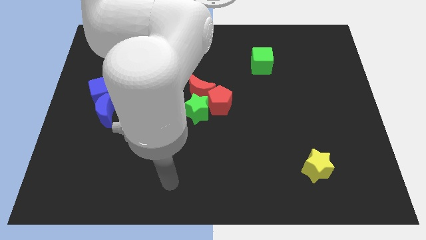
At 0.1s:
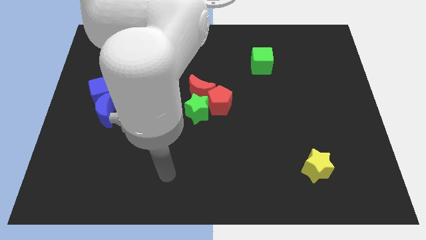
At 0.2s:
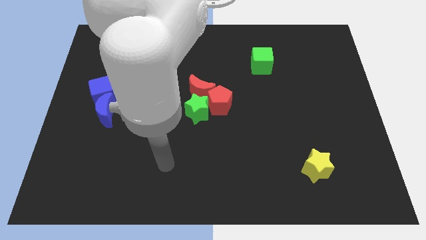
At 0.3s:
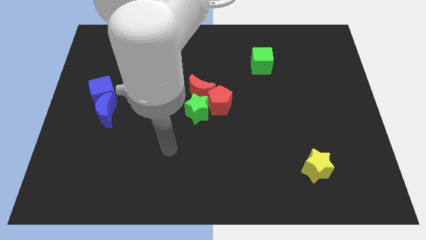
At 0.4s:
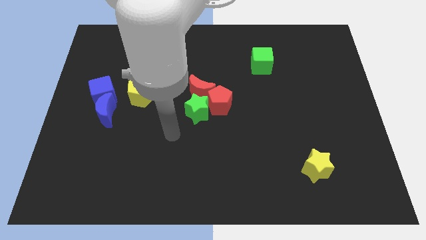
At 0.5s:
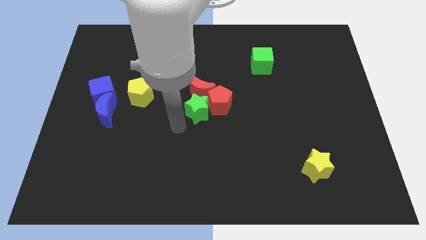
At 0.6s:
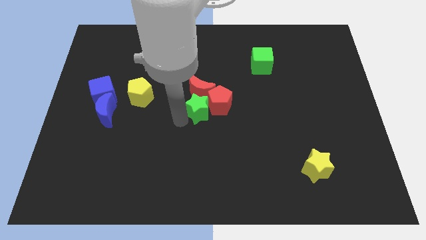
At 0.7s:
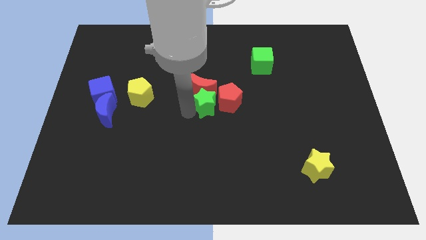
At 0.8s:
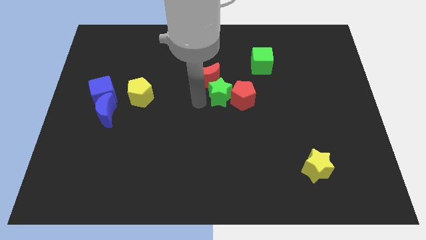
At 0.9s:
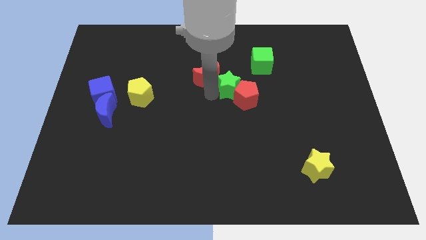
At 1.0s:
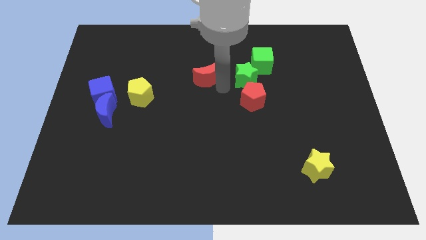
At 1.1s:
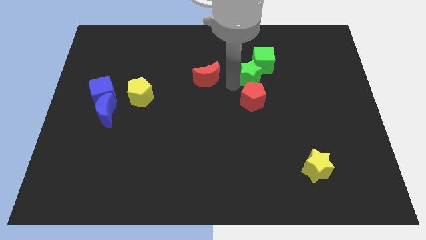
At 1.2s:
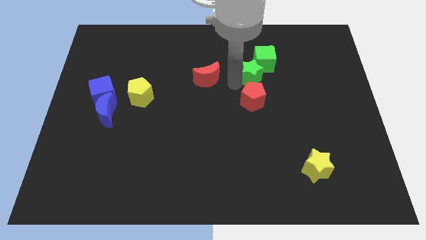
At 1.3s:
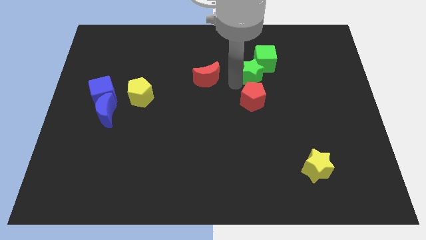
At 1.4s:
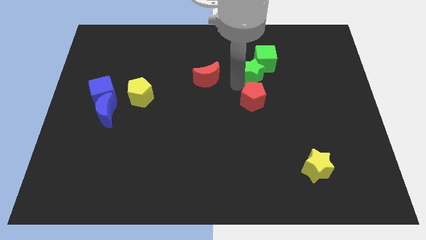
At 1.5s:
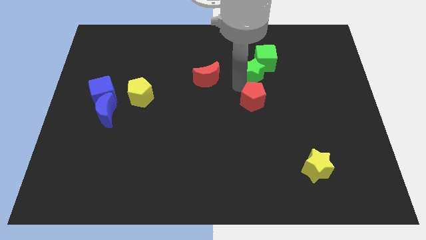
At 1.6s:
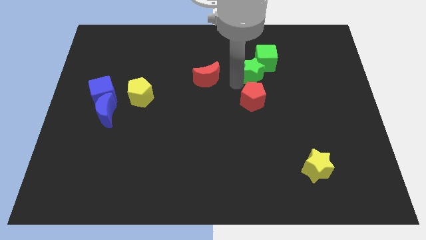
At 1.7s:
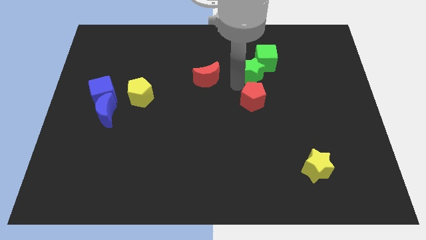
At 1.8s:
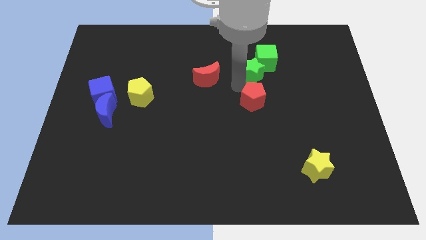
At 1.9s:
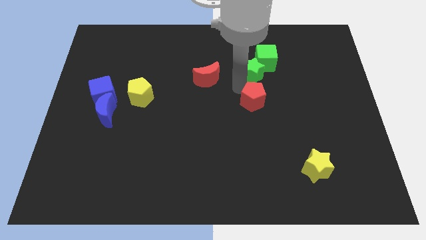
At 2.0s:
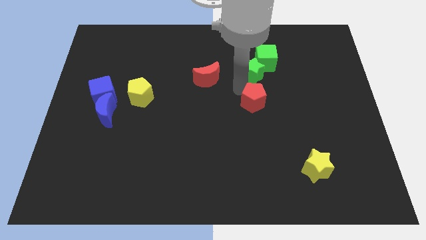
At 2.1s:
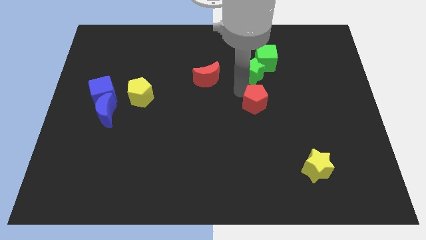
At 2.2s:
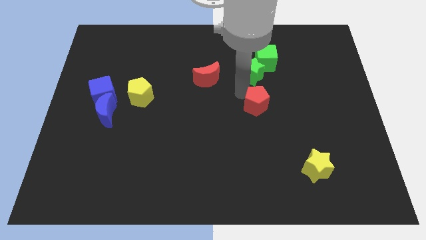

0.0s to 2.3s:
move the red pentagon away from the green star and red moon

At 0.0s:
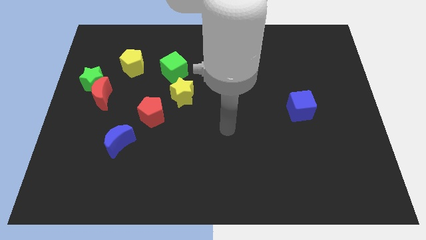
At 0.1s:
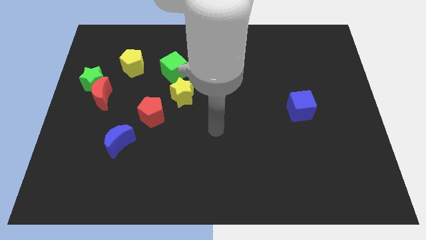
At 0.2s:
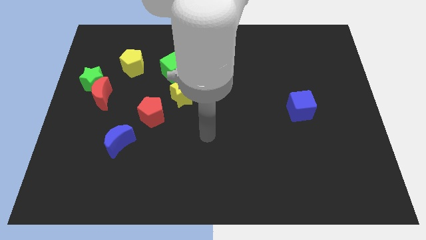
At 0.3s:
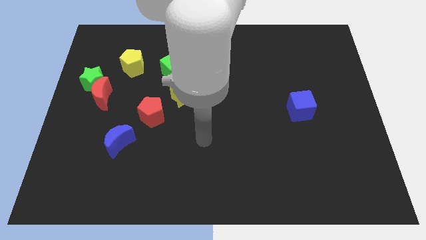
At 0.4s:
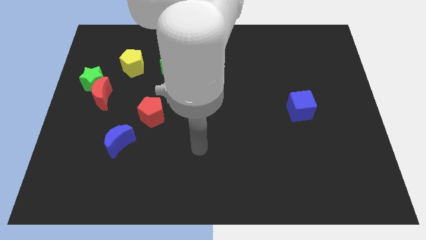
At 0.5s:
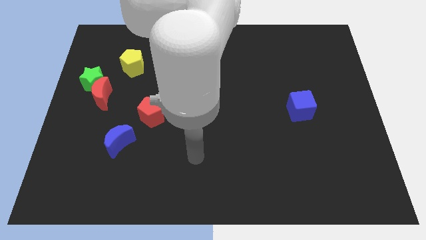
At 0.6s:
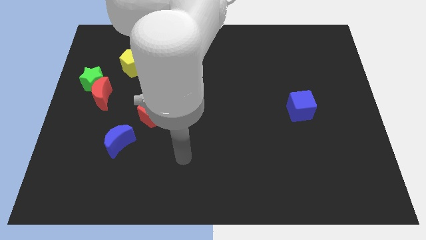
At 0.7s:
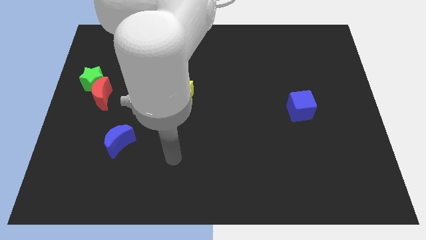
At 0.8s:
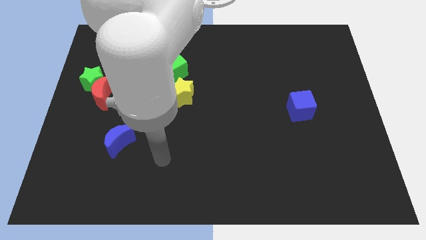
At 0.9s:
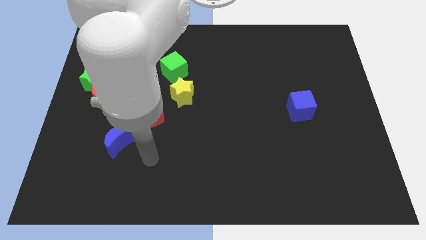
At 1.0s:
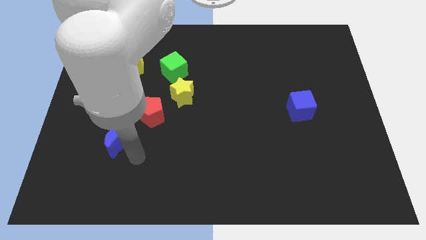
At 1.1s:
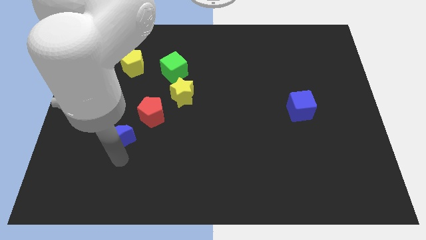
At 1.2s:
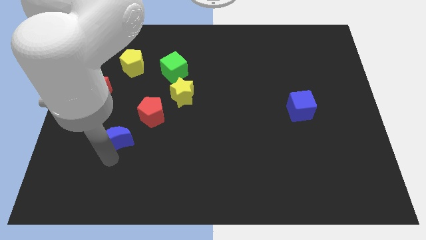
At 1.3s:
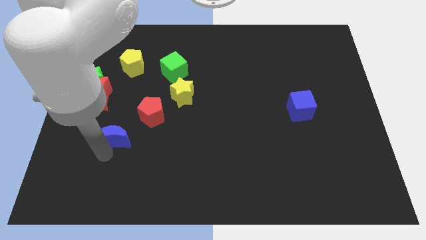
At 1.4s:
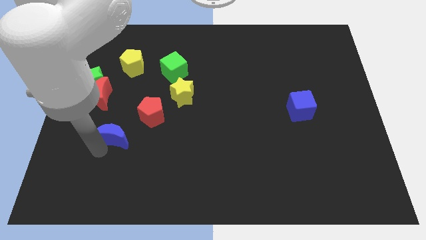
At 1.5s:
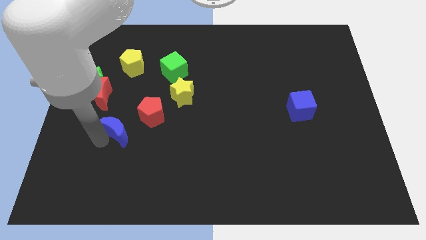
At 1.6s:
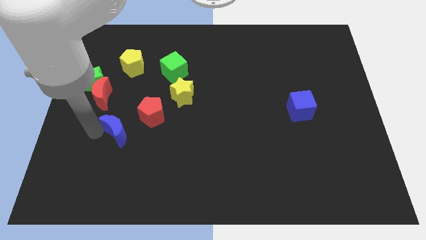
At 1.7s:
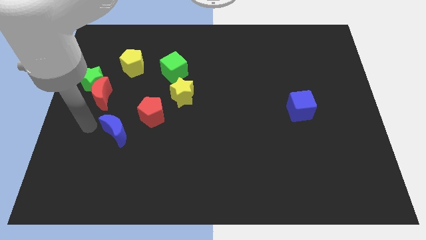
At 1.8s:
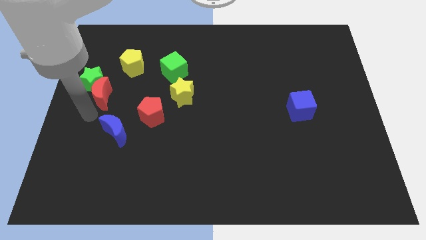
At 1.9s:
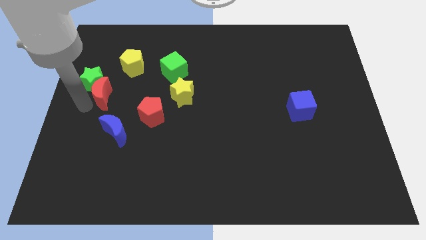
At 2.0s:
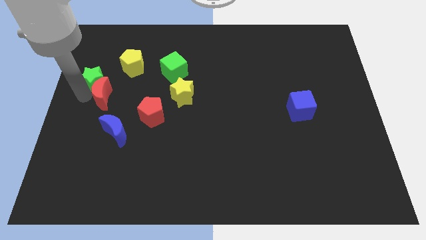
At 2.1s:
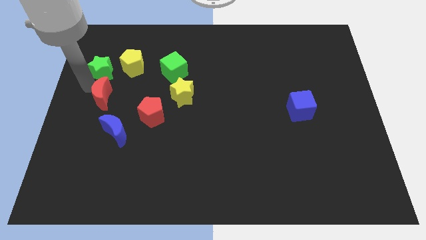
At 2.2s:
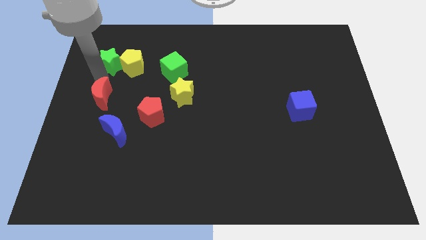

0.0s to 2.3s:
separate the red moon from the green star

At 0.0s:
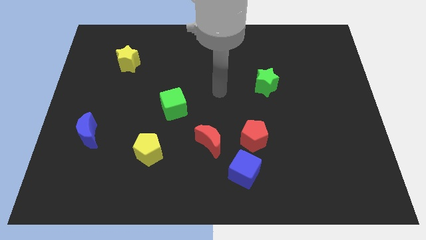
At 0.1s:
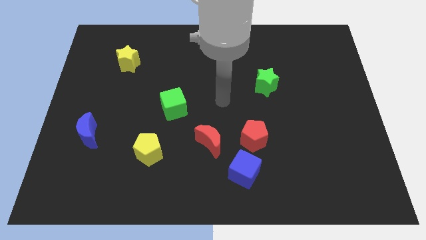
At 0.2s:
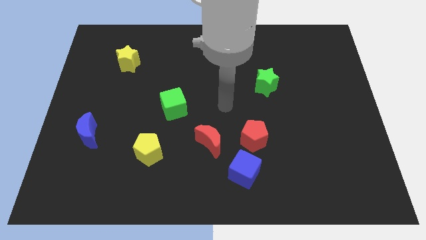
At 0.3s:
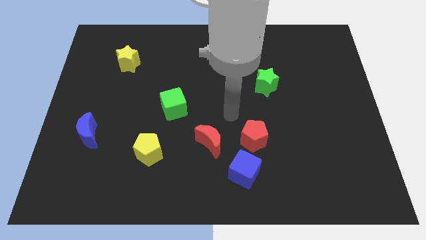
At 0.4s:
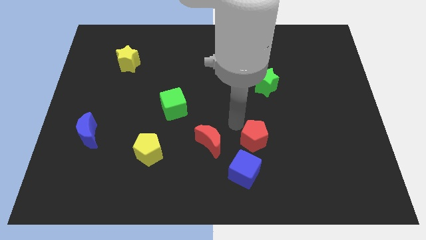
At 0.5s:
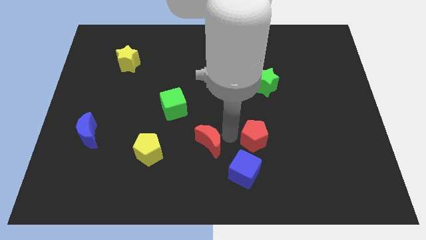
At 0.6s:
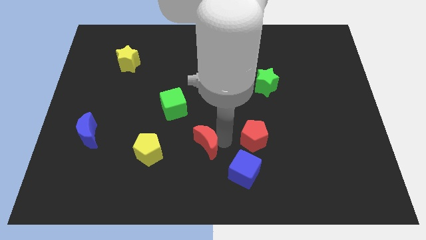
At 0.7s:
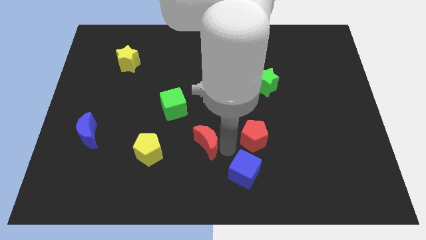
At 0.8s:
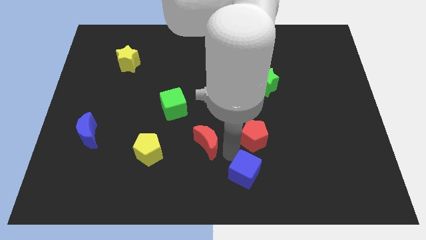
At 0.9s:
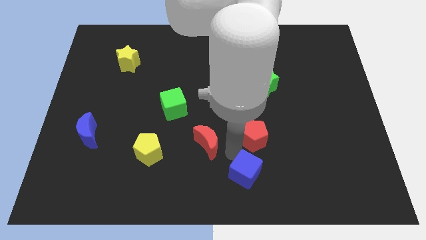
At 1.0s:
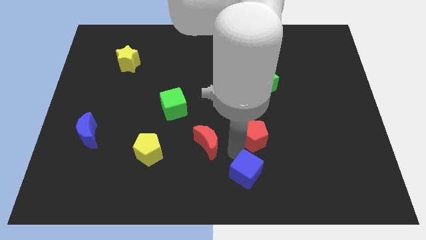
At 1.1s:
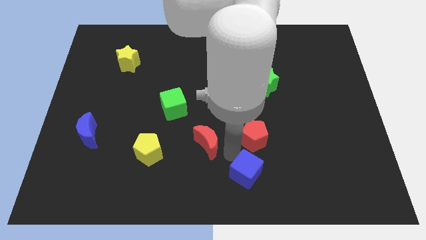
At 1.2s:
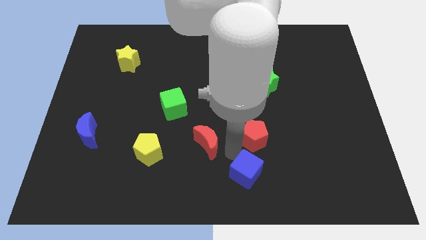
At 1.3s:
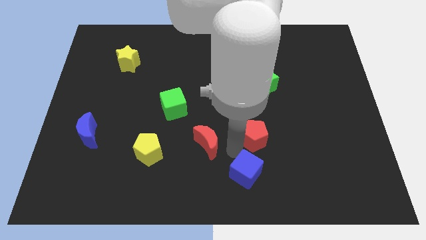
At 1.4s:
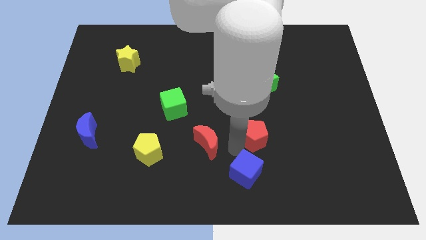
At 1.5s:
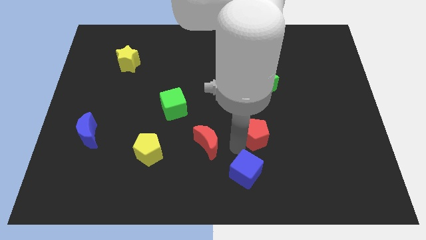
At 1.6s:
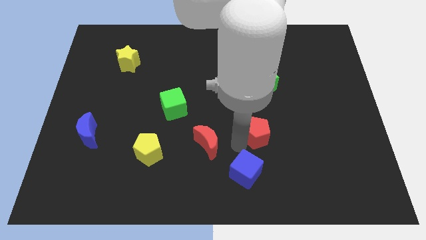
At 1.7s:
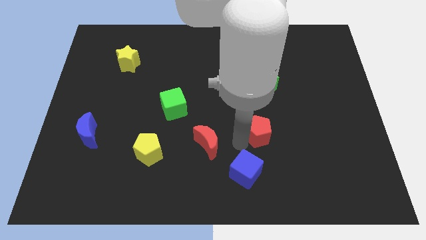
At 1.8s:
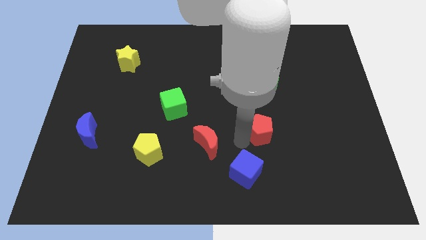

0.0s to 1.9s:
move the red pentagon away from the blue cube and red moon

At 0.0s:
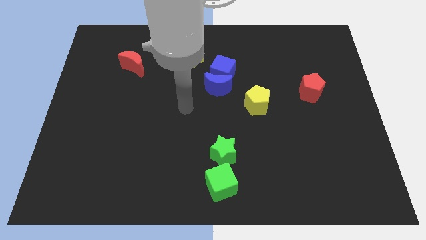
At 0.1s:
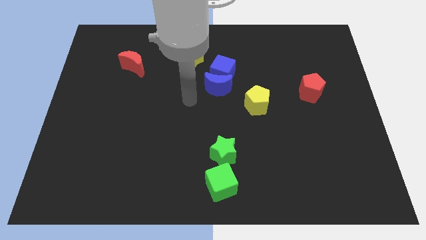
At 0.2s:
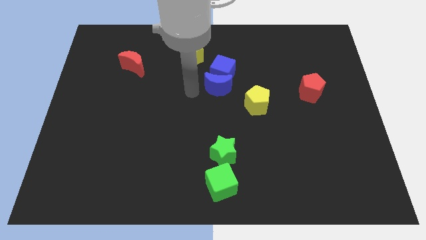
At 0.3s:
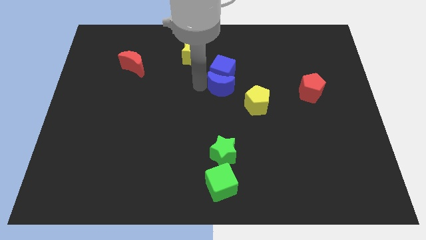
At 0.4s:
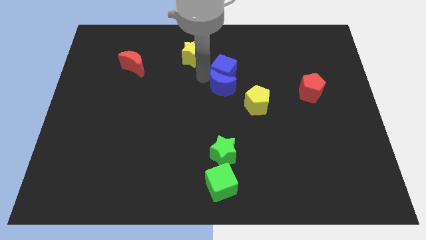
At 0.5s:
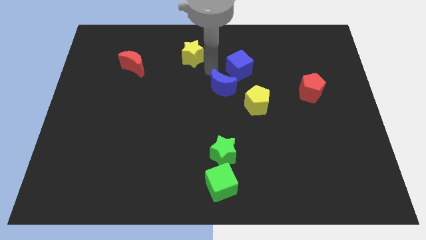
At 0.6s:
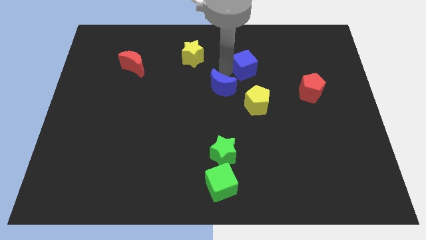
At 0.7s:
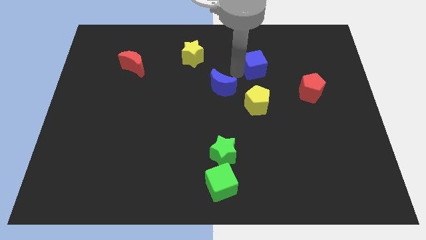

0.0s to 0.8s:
separate the blue moon from the blue cube

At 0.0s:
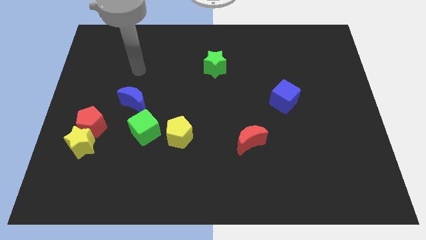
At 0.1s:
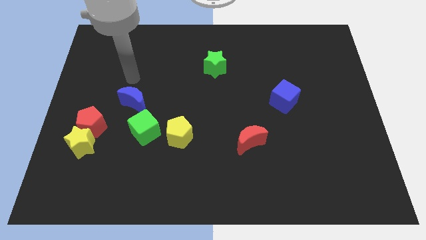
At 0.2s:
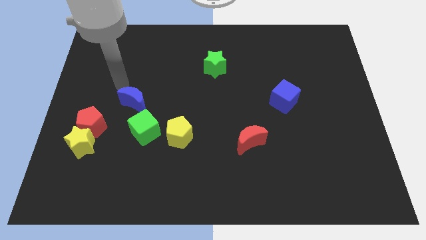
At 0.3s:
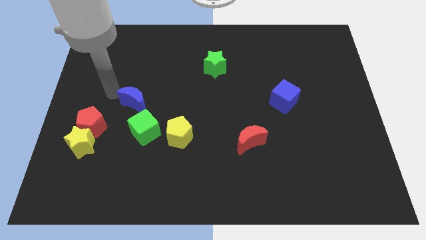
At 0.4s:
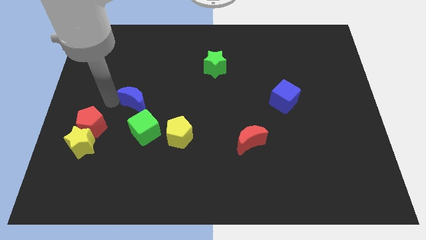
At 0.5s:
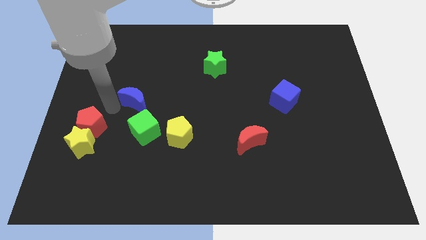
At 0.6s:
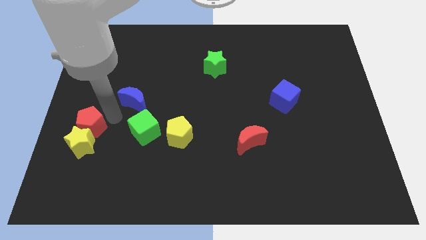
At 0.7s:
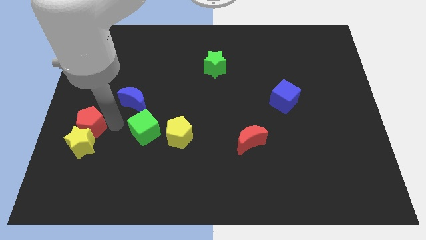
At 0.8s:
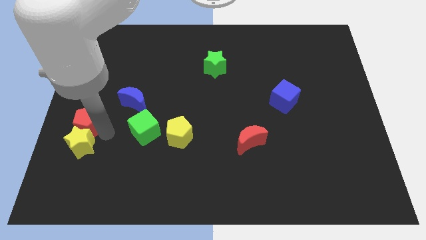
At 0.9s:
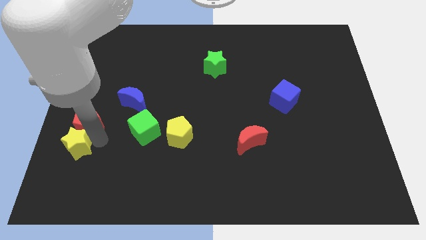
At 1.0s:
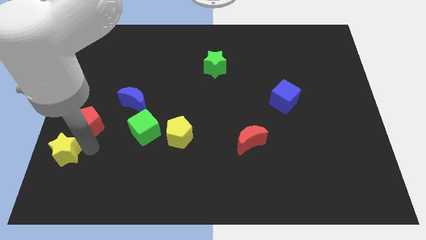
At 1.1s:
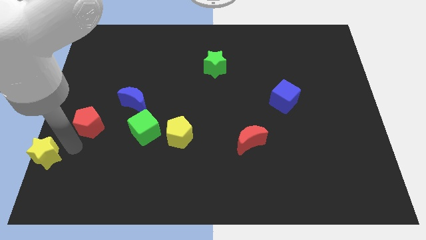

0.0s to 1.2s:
separate the red pentagon from the yellow star

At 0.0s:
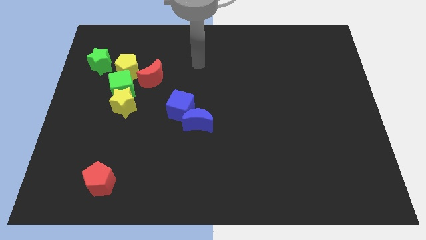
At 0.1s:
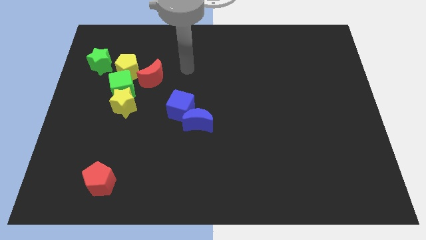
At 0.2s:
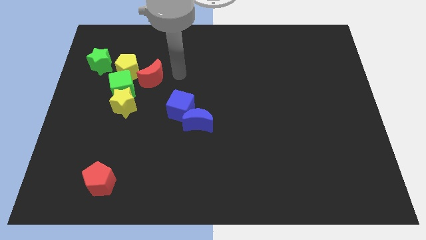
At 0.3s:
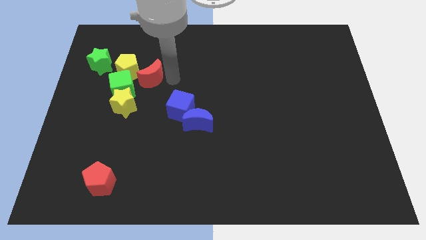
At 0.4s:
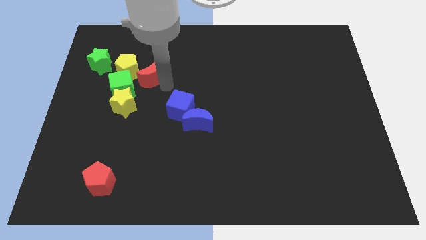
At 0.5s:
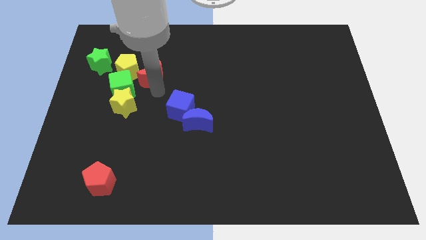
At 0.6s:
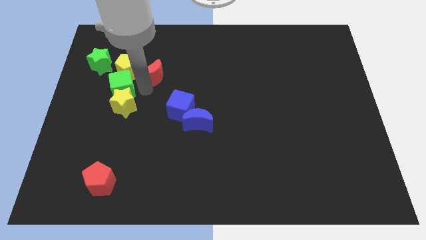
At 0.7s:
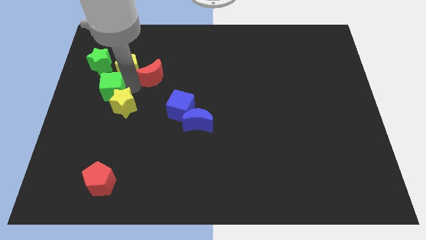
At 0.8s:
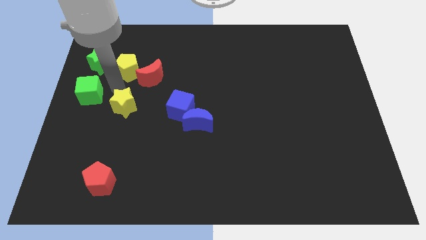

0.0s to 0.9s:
separate the yellow star from the green cube

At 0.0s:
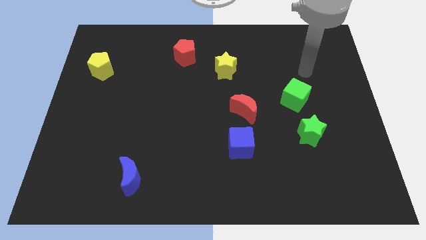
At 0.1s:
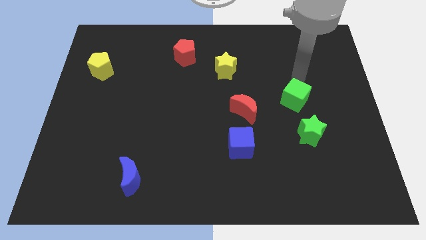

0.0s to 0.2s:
separate the red moon from the blue cube
